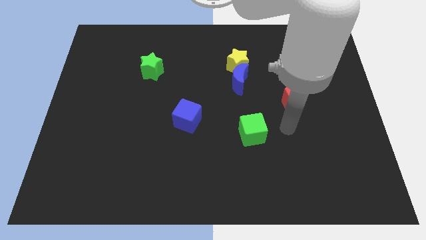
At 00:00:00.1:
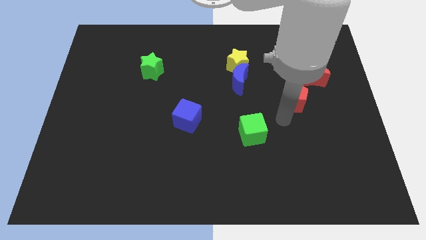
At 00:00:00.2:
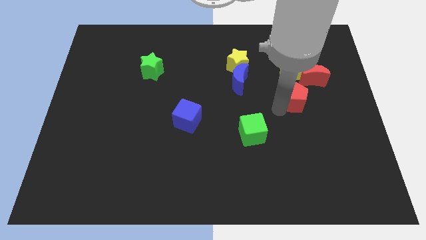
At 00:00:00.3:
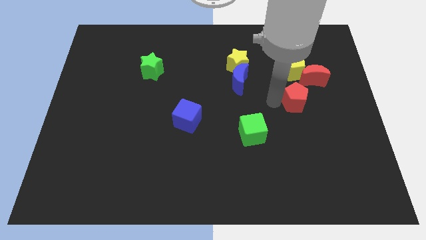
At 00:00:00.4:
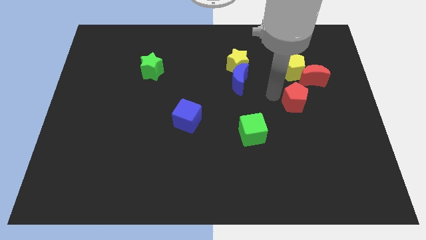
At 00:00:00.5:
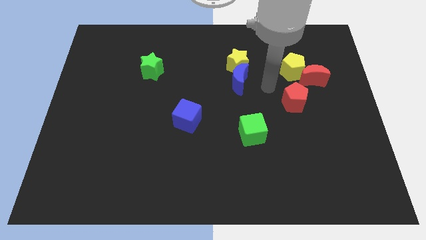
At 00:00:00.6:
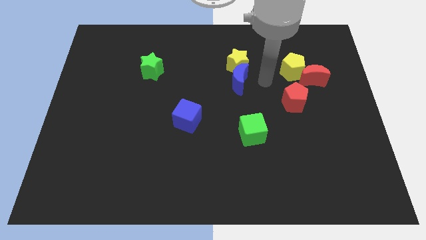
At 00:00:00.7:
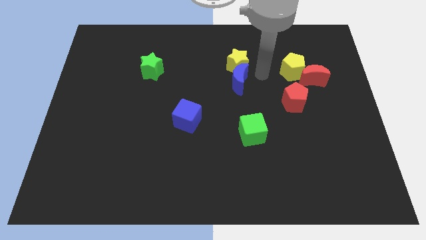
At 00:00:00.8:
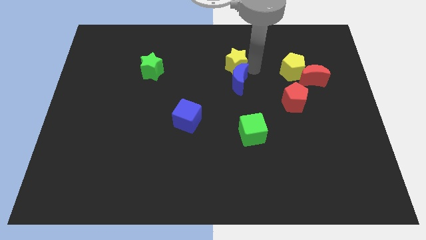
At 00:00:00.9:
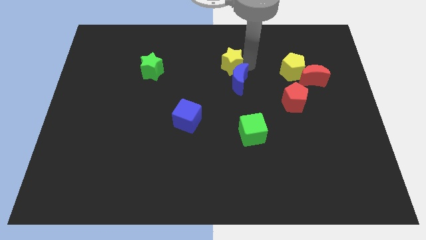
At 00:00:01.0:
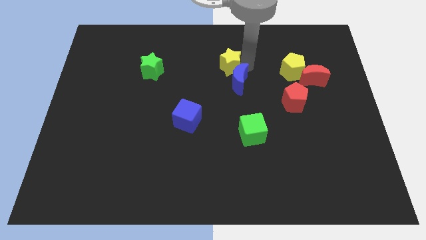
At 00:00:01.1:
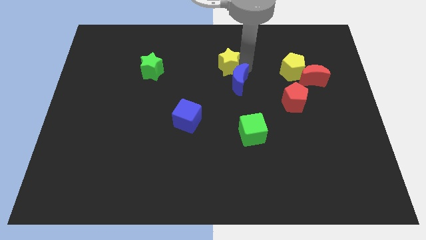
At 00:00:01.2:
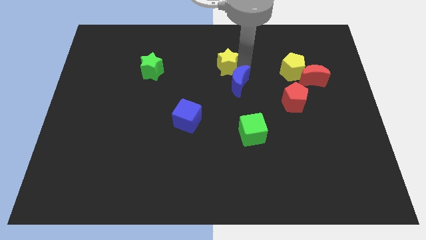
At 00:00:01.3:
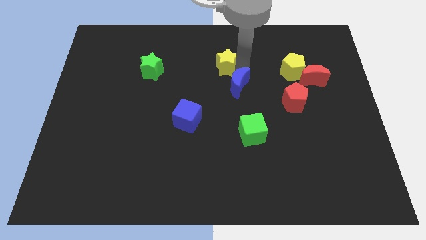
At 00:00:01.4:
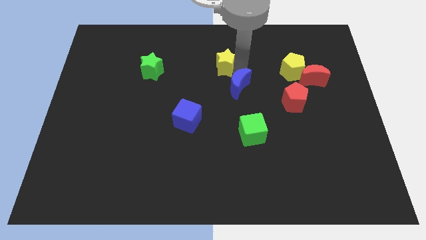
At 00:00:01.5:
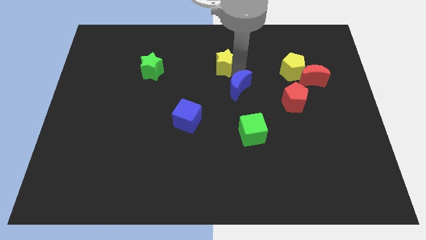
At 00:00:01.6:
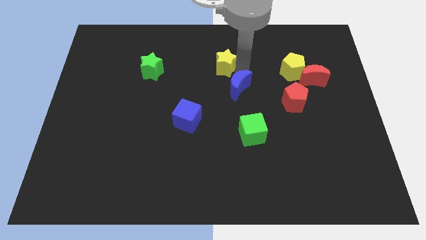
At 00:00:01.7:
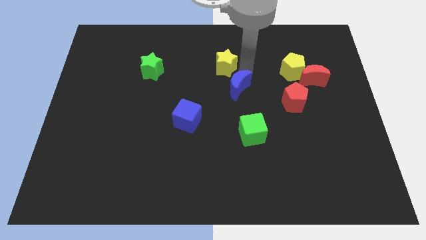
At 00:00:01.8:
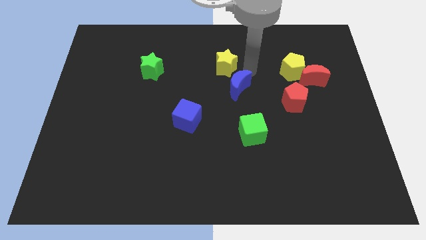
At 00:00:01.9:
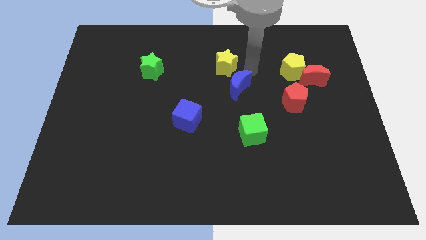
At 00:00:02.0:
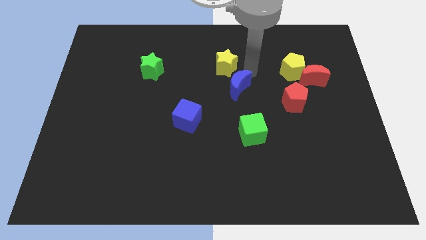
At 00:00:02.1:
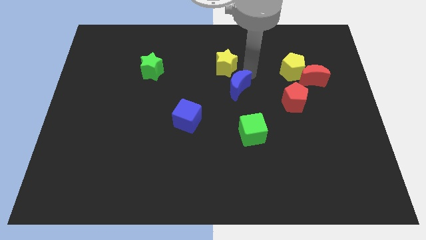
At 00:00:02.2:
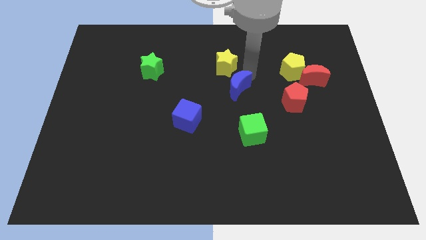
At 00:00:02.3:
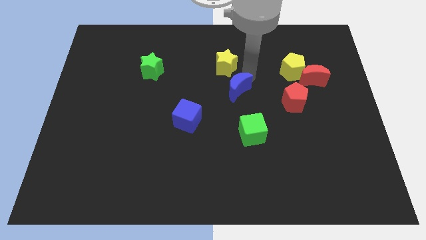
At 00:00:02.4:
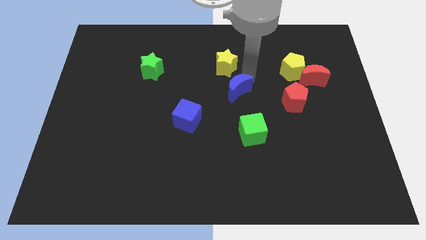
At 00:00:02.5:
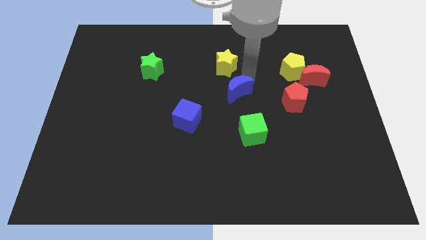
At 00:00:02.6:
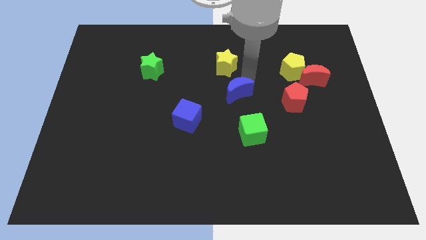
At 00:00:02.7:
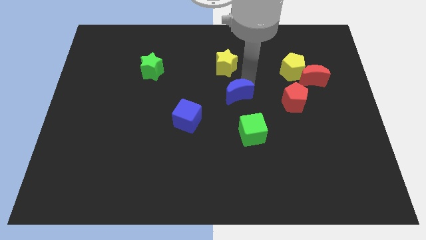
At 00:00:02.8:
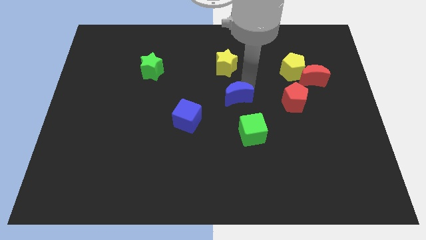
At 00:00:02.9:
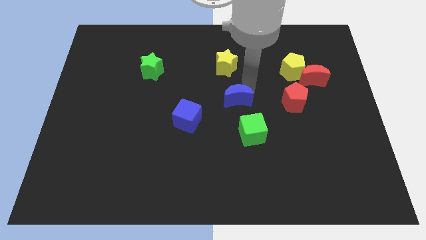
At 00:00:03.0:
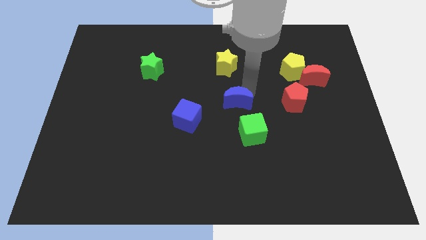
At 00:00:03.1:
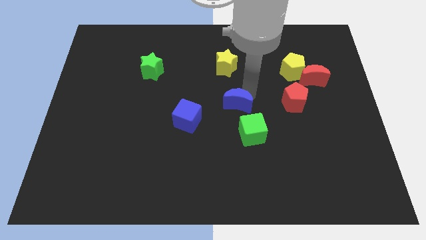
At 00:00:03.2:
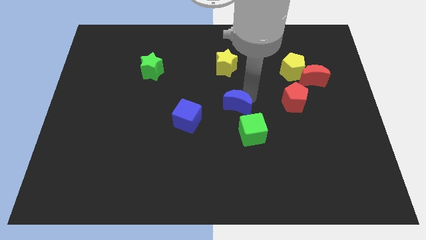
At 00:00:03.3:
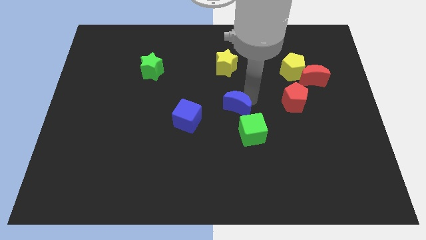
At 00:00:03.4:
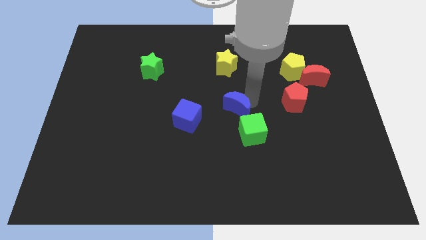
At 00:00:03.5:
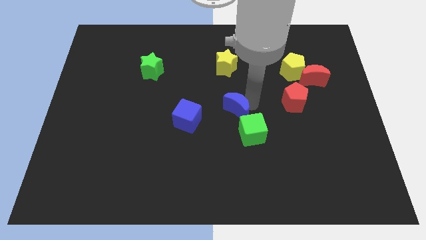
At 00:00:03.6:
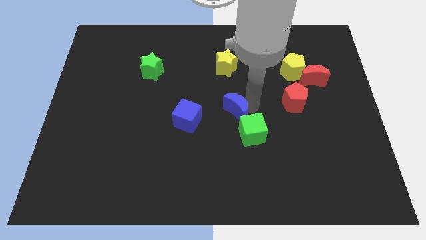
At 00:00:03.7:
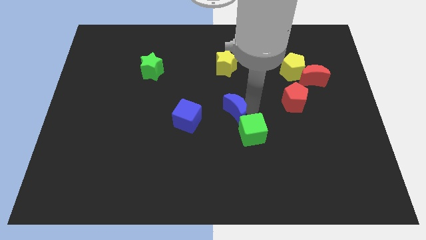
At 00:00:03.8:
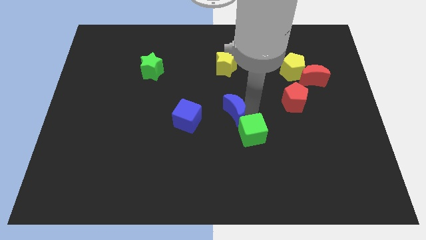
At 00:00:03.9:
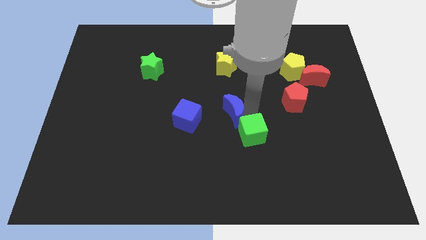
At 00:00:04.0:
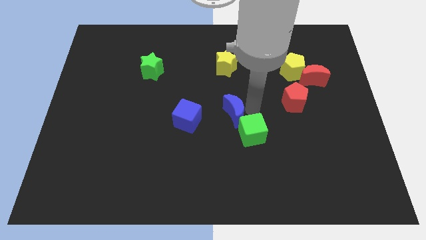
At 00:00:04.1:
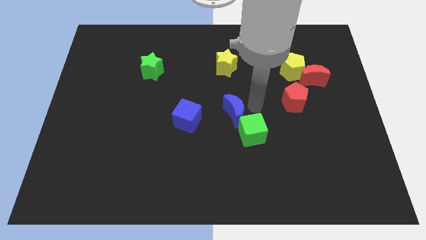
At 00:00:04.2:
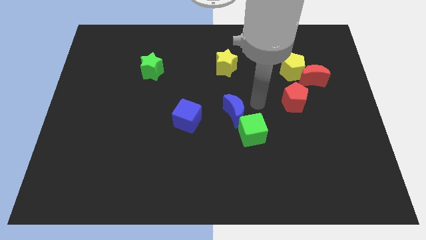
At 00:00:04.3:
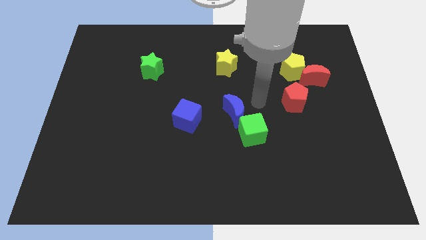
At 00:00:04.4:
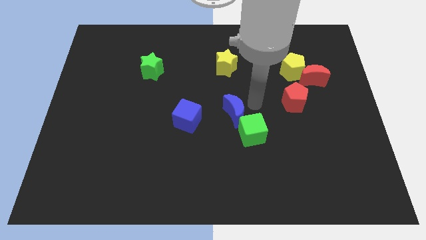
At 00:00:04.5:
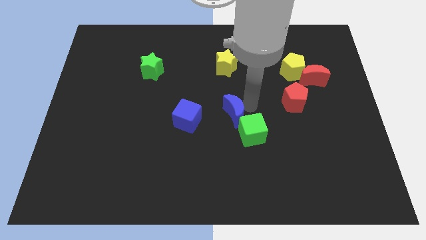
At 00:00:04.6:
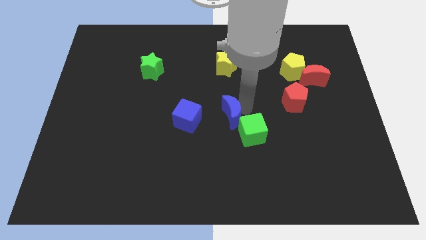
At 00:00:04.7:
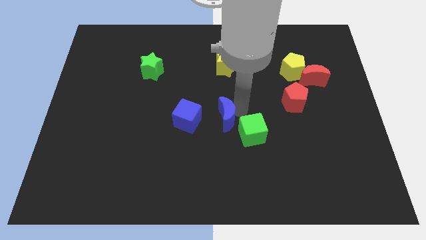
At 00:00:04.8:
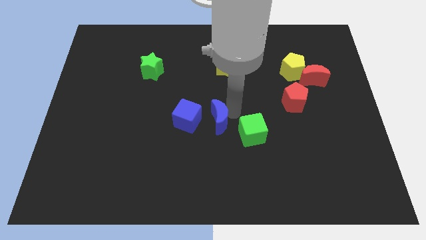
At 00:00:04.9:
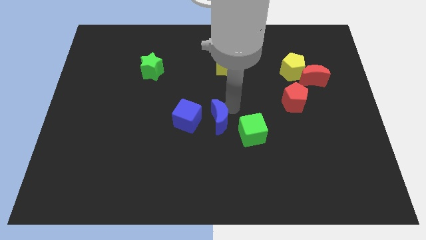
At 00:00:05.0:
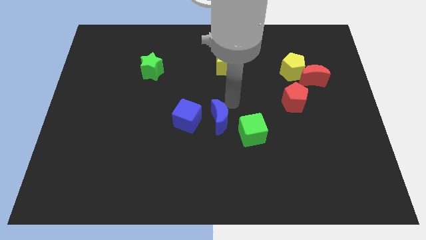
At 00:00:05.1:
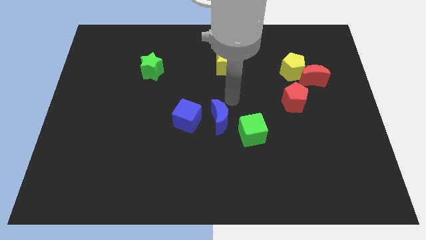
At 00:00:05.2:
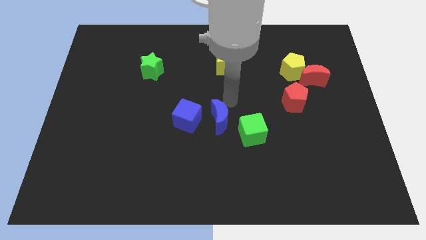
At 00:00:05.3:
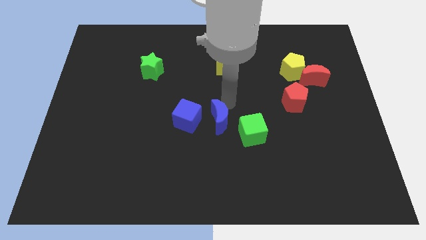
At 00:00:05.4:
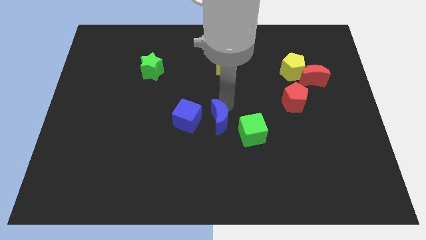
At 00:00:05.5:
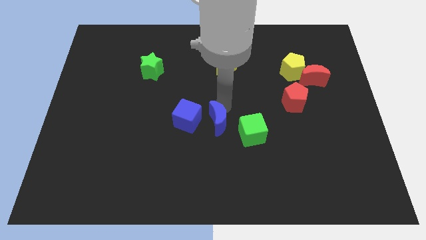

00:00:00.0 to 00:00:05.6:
put the blue moon to the bottom right of the blue cube

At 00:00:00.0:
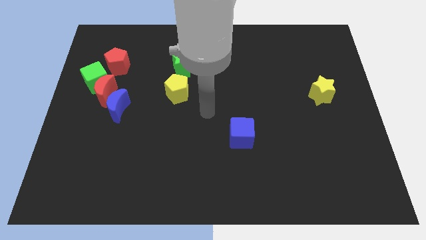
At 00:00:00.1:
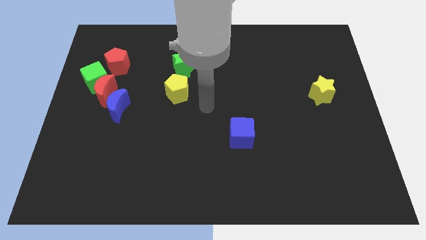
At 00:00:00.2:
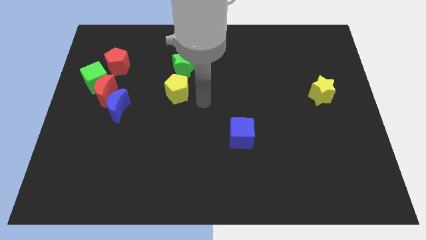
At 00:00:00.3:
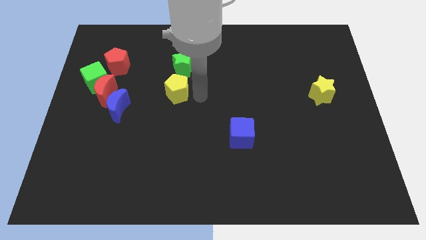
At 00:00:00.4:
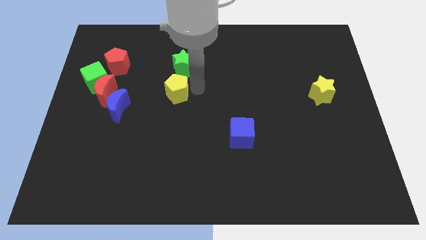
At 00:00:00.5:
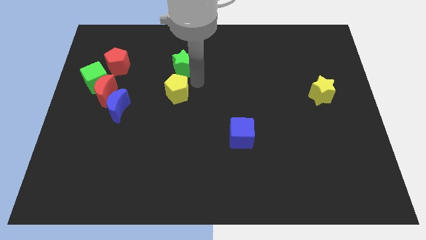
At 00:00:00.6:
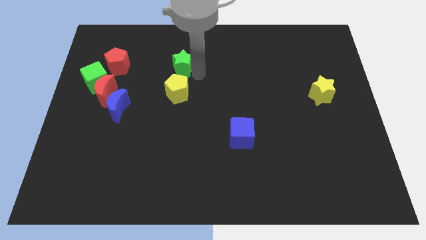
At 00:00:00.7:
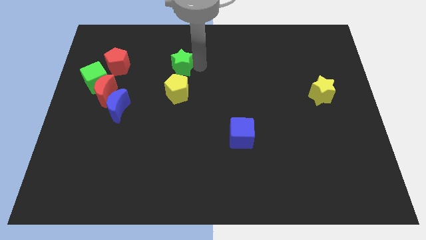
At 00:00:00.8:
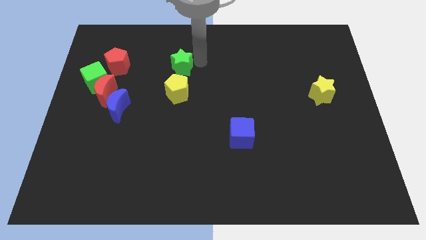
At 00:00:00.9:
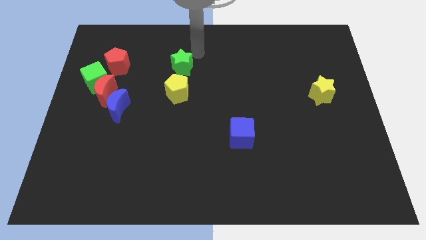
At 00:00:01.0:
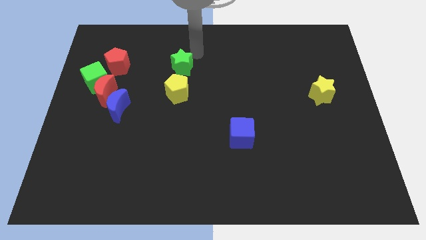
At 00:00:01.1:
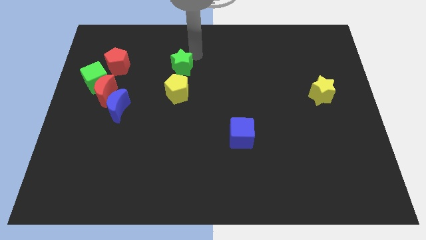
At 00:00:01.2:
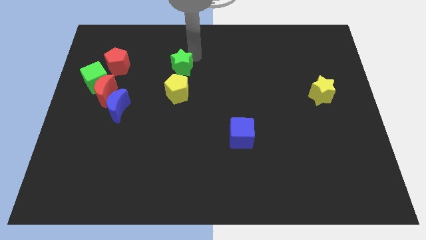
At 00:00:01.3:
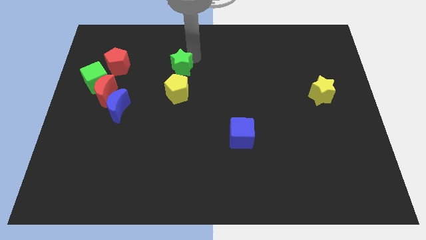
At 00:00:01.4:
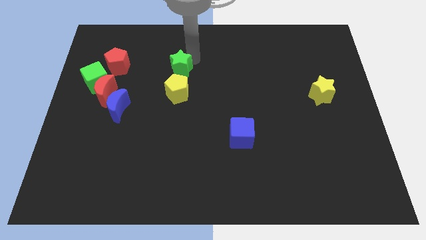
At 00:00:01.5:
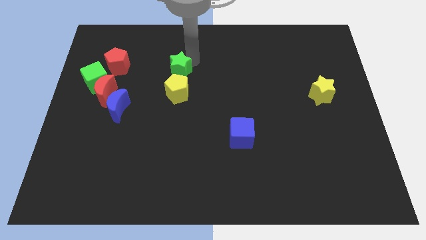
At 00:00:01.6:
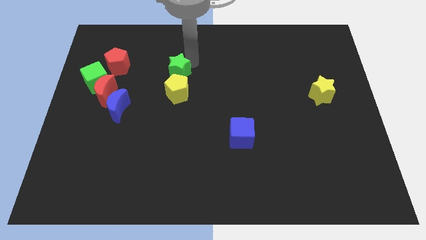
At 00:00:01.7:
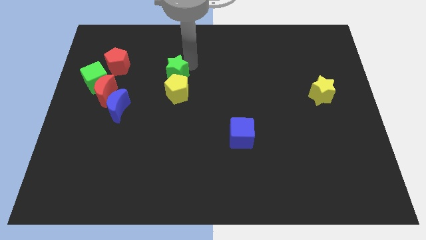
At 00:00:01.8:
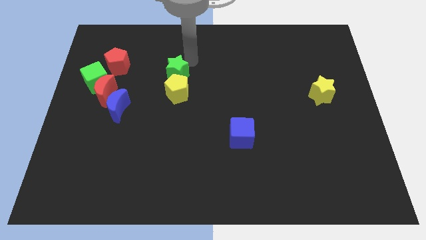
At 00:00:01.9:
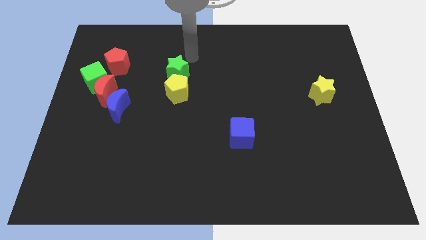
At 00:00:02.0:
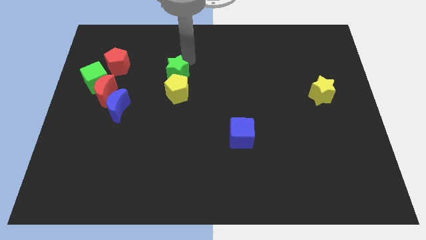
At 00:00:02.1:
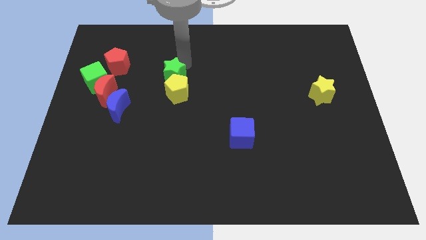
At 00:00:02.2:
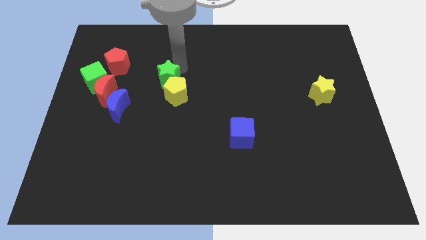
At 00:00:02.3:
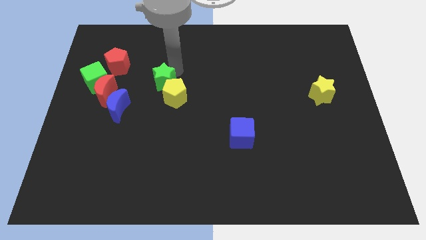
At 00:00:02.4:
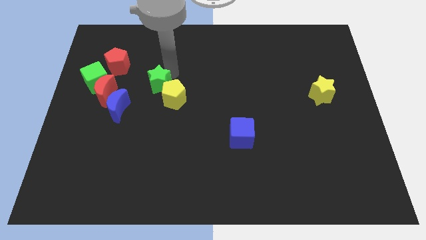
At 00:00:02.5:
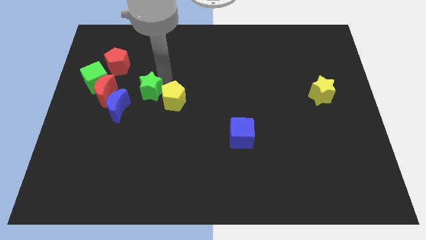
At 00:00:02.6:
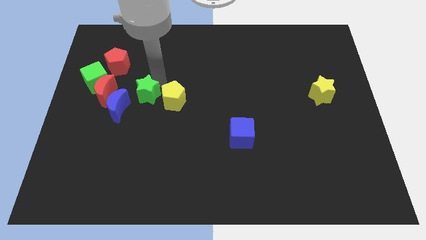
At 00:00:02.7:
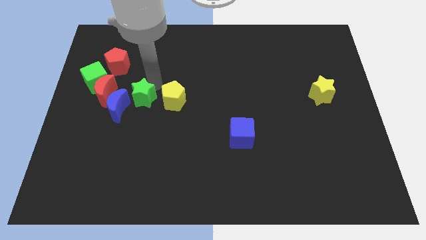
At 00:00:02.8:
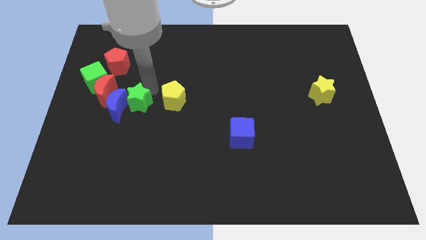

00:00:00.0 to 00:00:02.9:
push the green star to the bottom right of the red moon
